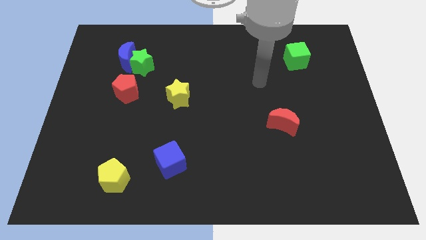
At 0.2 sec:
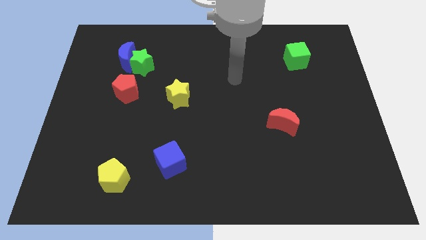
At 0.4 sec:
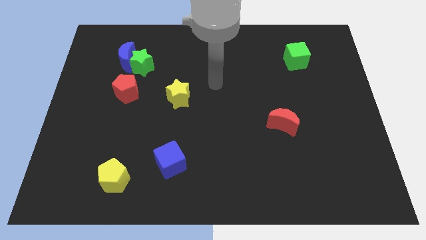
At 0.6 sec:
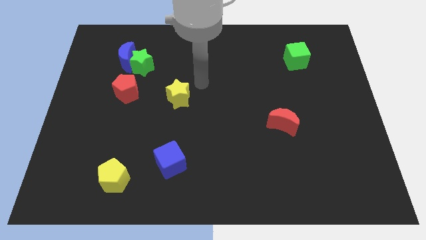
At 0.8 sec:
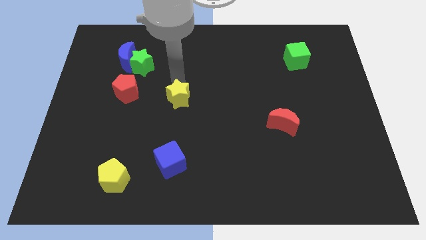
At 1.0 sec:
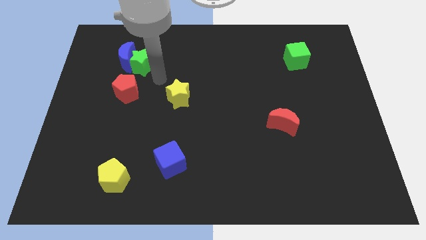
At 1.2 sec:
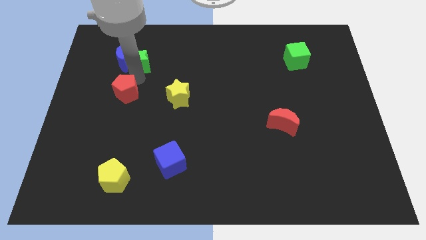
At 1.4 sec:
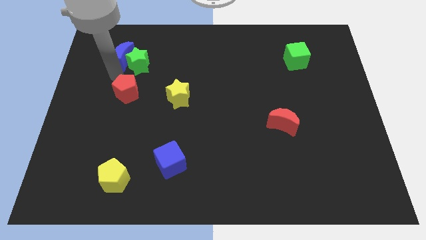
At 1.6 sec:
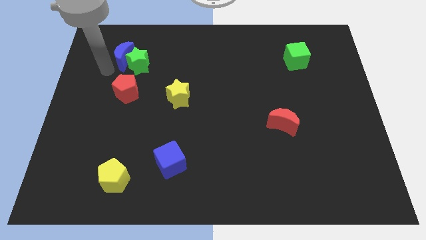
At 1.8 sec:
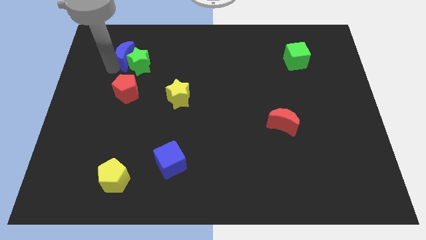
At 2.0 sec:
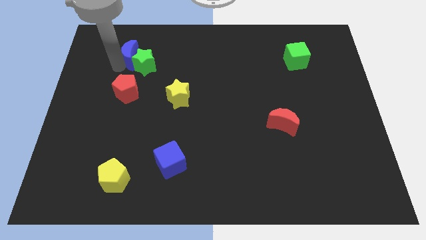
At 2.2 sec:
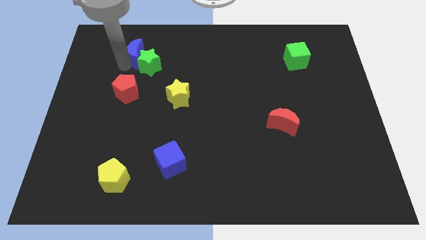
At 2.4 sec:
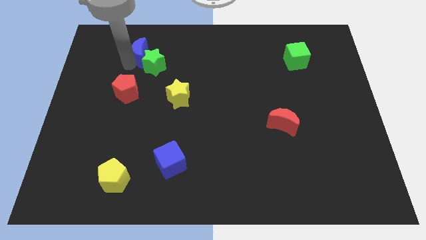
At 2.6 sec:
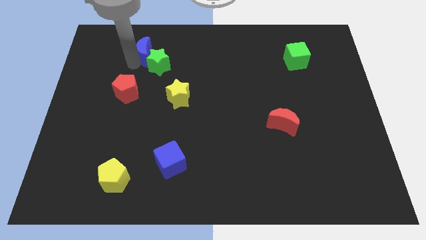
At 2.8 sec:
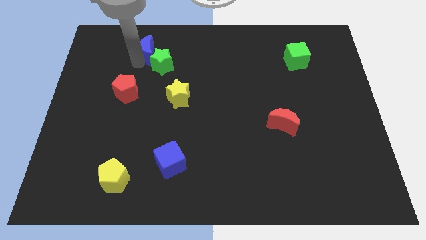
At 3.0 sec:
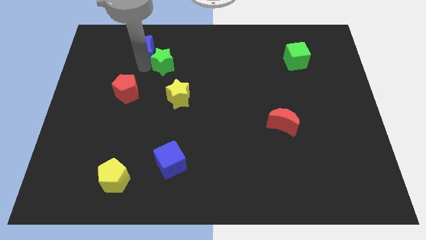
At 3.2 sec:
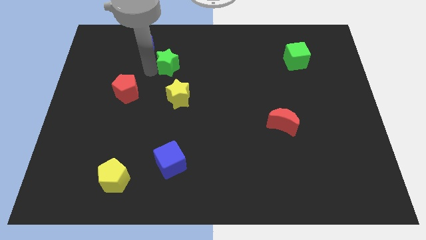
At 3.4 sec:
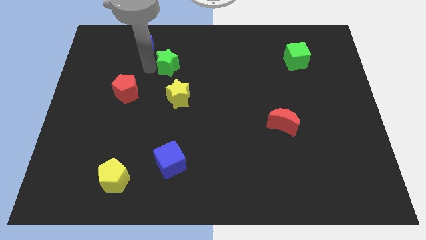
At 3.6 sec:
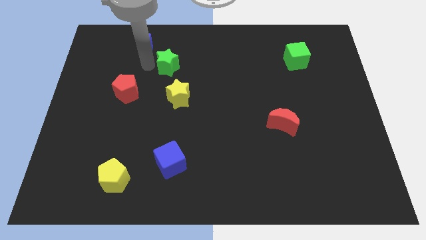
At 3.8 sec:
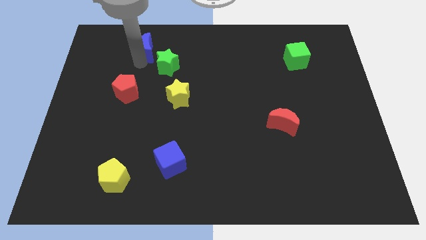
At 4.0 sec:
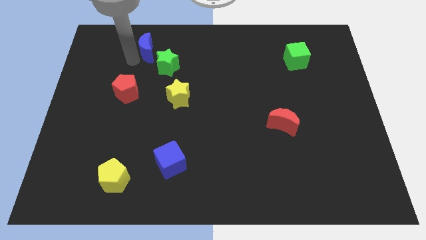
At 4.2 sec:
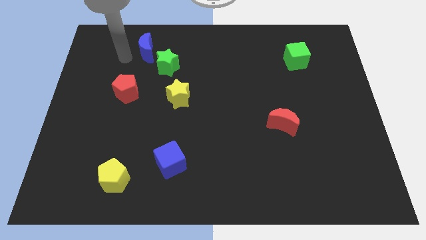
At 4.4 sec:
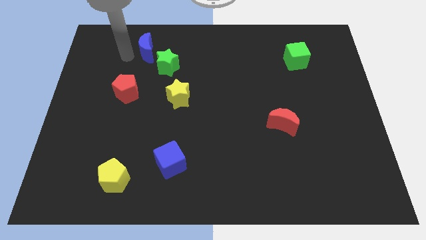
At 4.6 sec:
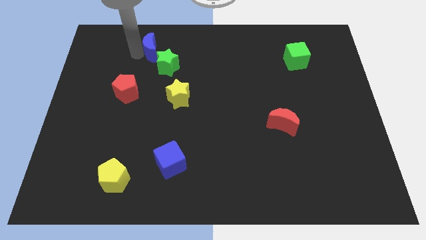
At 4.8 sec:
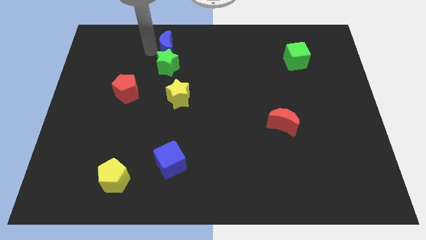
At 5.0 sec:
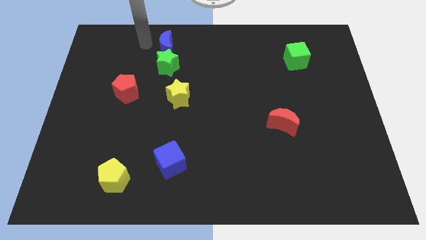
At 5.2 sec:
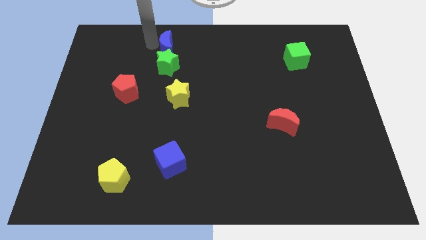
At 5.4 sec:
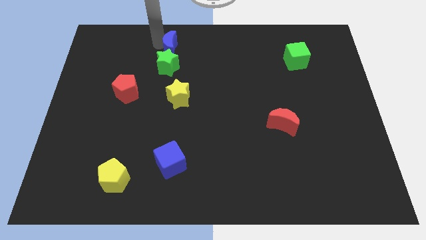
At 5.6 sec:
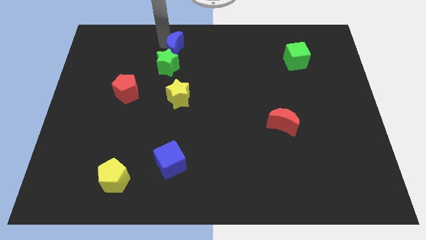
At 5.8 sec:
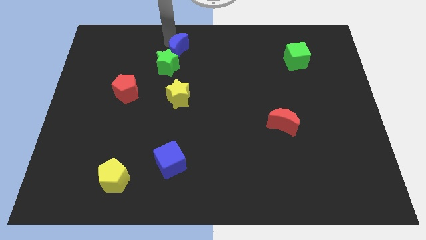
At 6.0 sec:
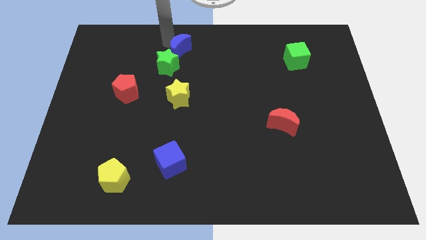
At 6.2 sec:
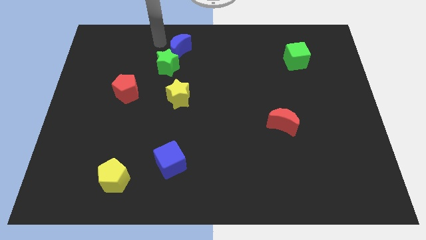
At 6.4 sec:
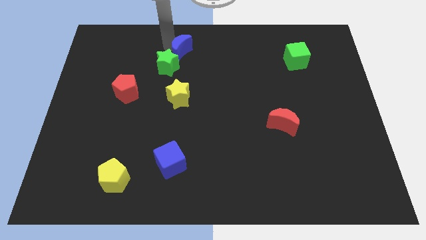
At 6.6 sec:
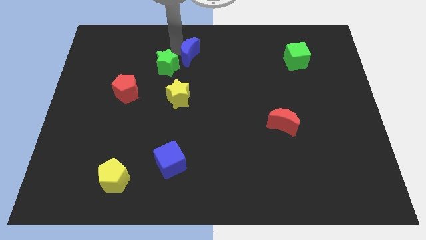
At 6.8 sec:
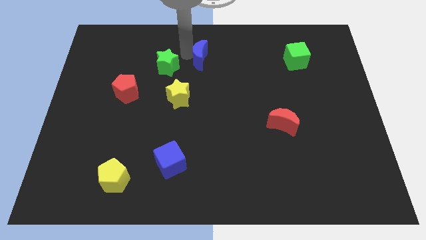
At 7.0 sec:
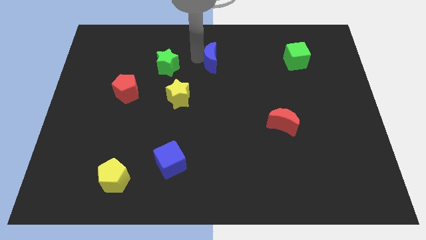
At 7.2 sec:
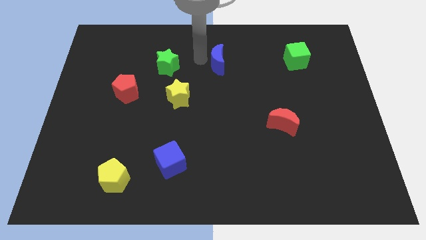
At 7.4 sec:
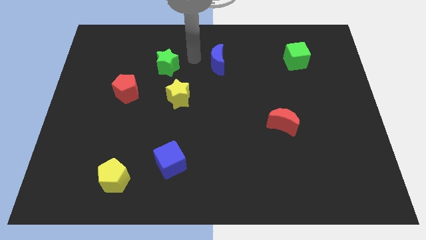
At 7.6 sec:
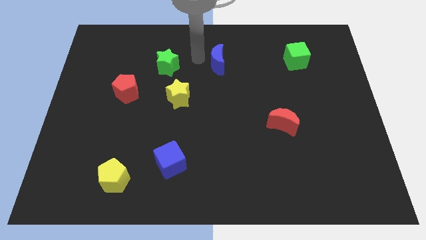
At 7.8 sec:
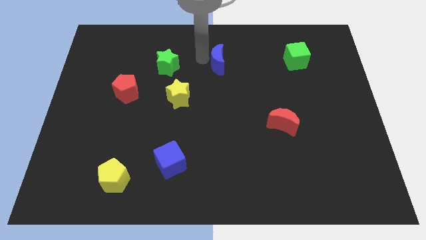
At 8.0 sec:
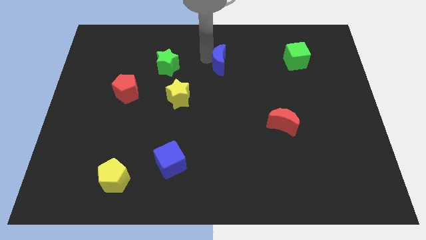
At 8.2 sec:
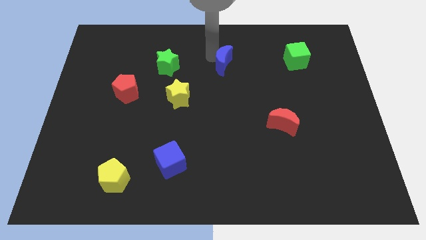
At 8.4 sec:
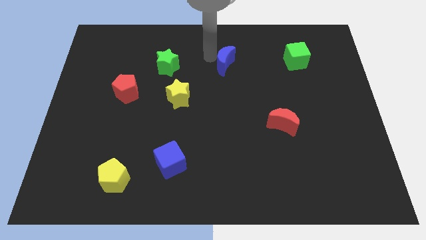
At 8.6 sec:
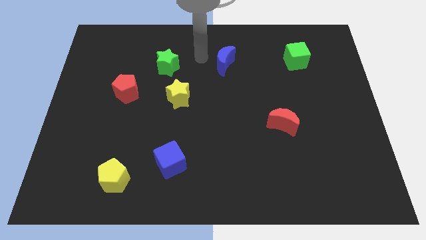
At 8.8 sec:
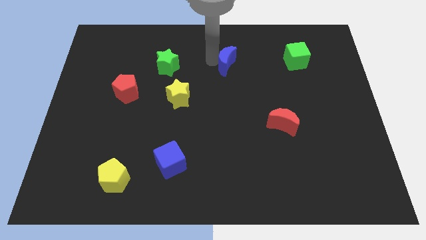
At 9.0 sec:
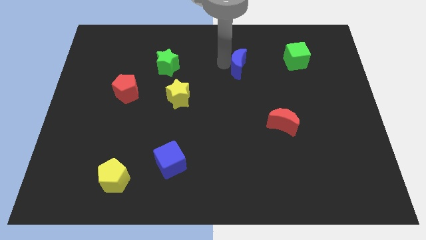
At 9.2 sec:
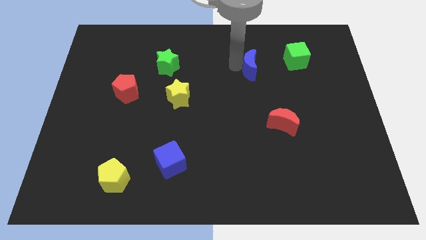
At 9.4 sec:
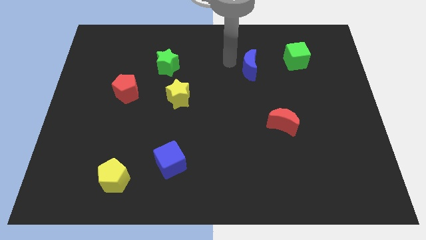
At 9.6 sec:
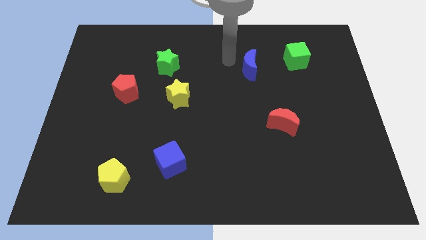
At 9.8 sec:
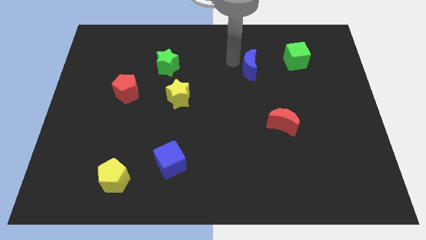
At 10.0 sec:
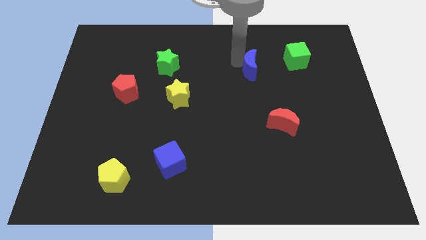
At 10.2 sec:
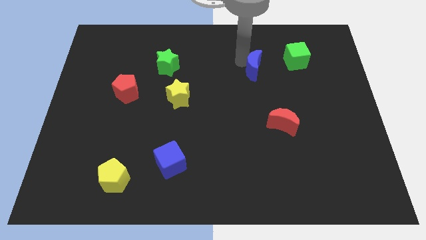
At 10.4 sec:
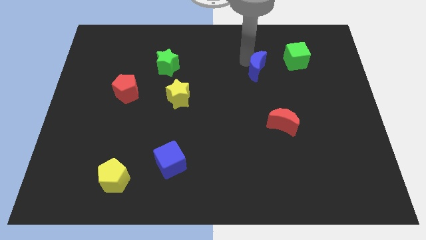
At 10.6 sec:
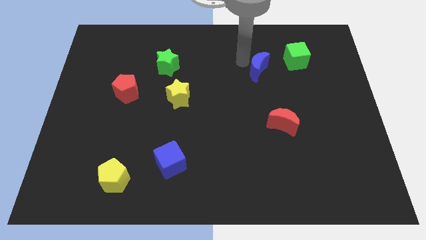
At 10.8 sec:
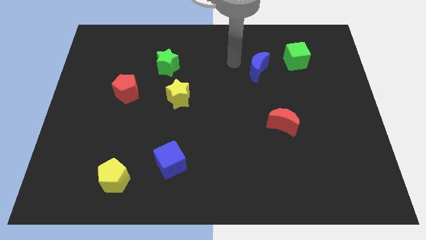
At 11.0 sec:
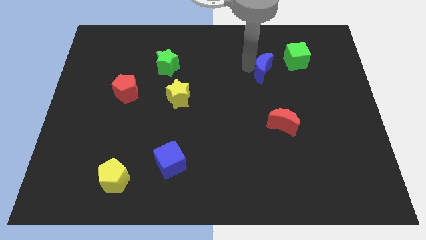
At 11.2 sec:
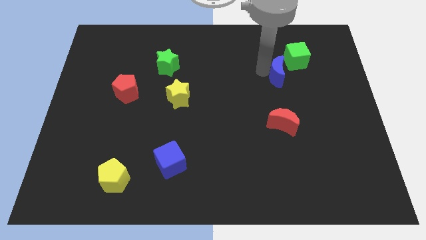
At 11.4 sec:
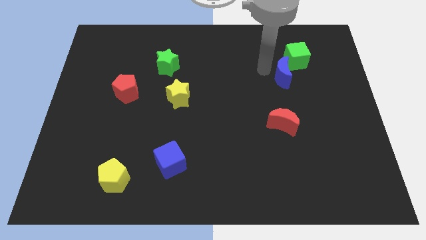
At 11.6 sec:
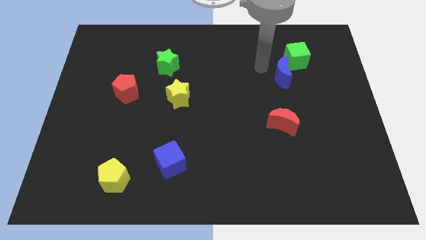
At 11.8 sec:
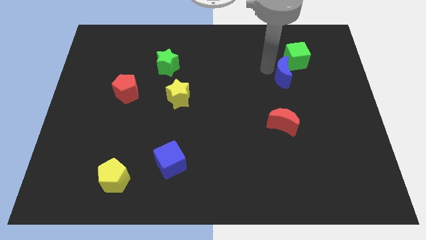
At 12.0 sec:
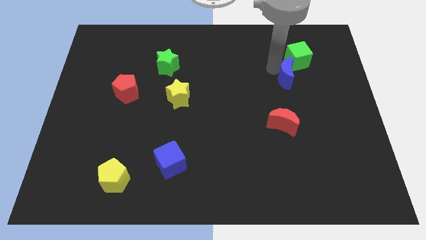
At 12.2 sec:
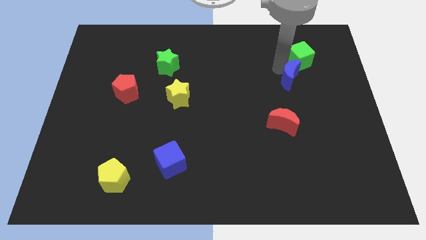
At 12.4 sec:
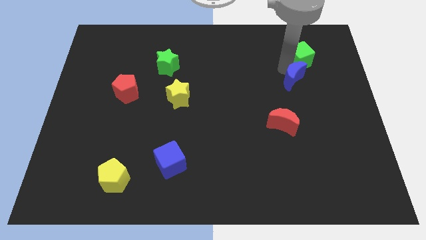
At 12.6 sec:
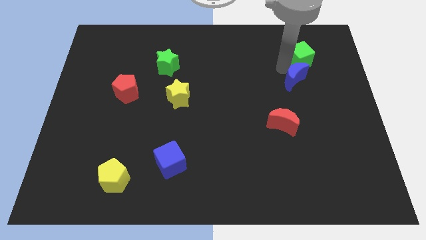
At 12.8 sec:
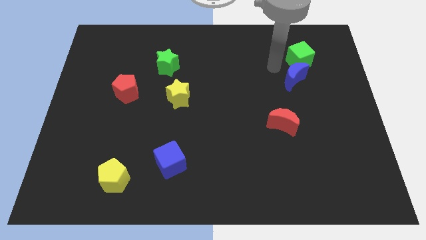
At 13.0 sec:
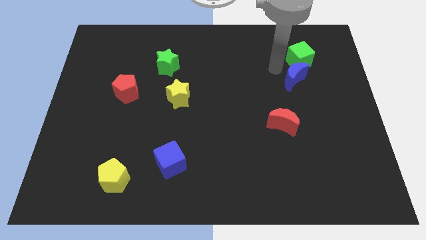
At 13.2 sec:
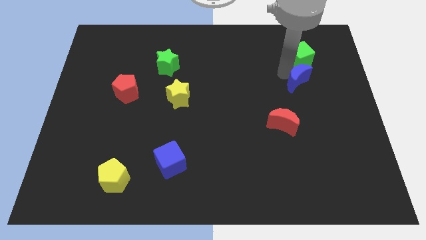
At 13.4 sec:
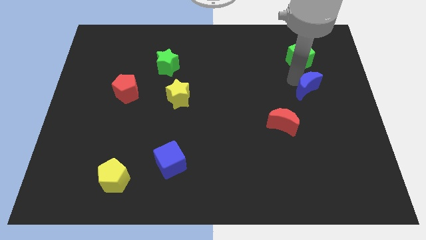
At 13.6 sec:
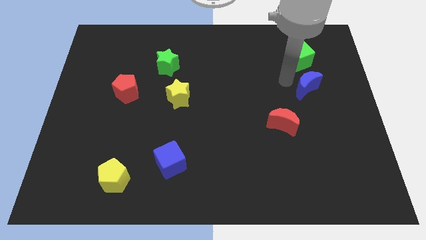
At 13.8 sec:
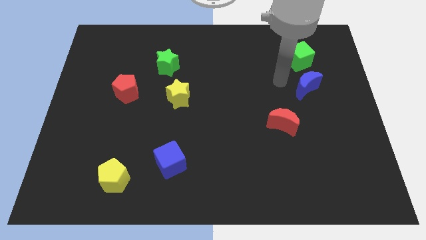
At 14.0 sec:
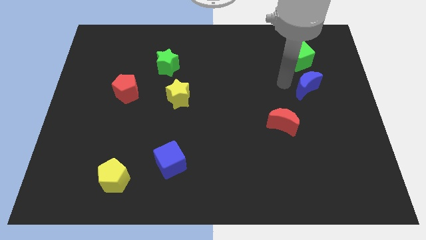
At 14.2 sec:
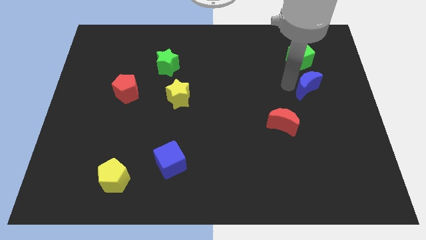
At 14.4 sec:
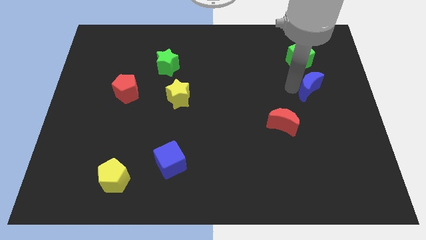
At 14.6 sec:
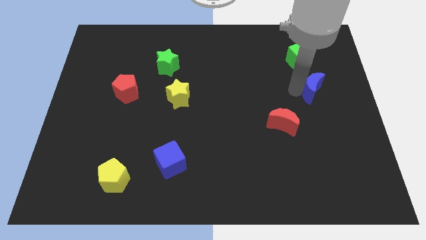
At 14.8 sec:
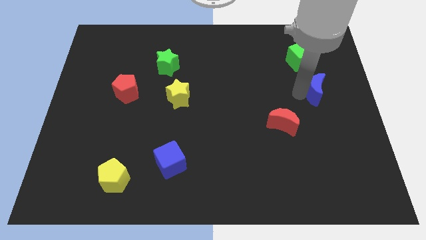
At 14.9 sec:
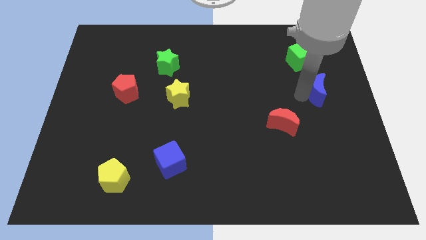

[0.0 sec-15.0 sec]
put the blue moon to the center right
